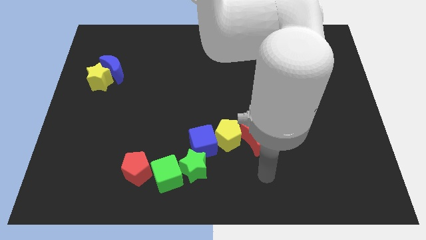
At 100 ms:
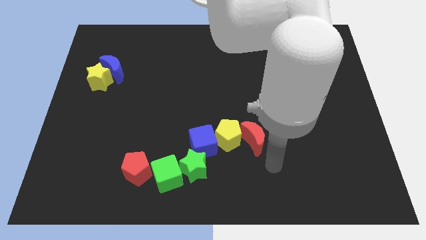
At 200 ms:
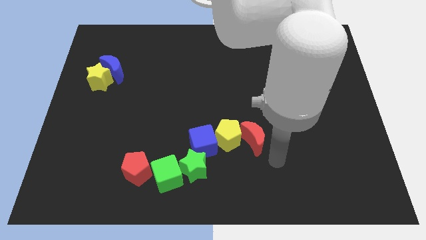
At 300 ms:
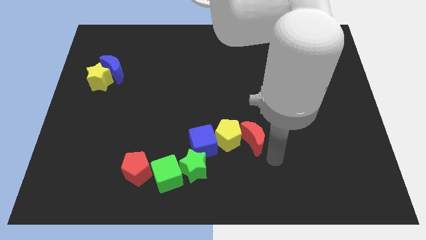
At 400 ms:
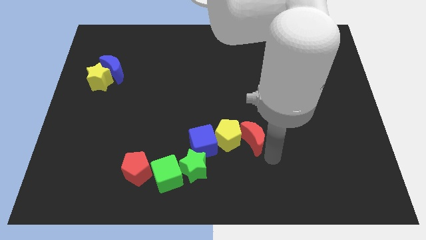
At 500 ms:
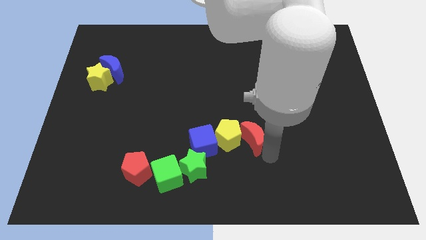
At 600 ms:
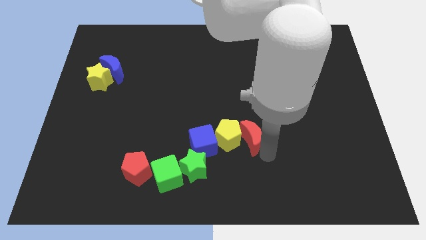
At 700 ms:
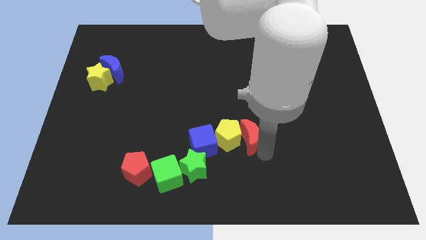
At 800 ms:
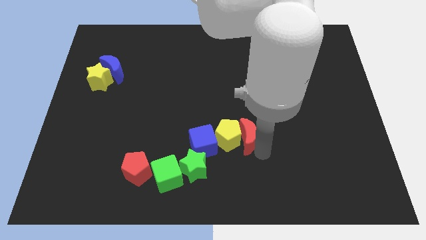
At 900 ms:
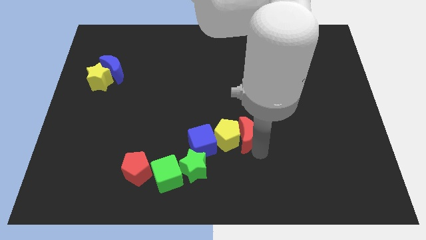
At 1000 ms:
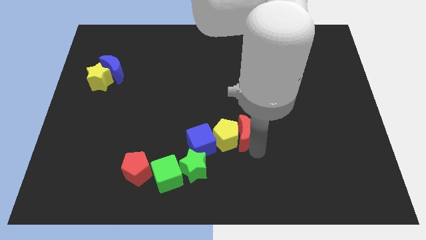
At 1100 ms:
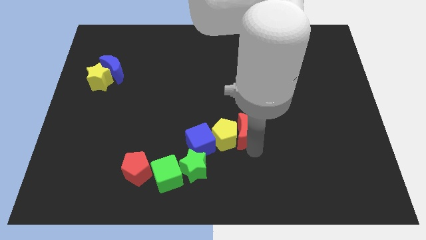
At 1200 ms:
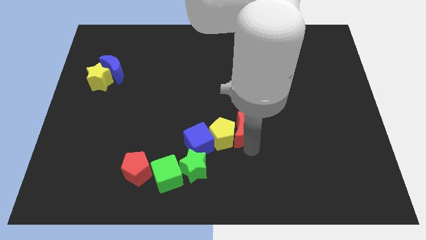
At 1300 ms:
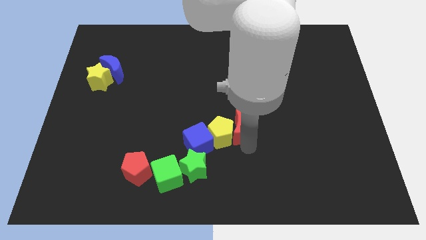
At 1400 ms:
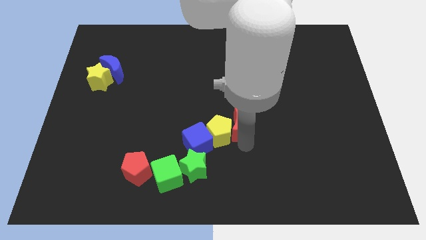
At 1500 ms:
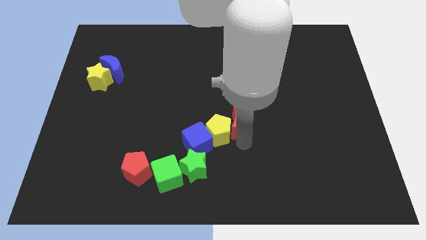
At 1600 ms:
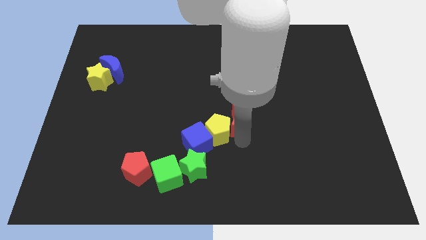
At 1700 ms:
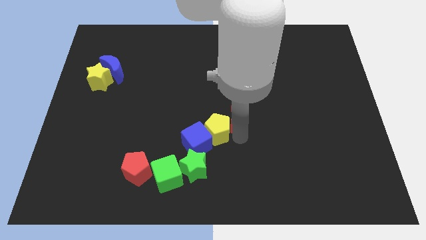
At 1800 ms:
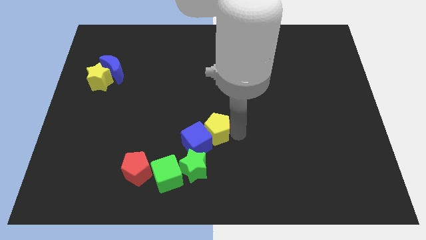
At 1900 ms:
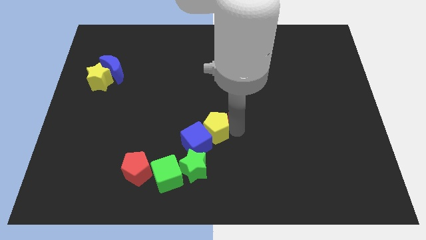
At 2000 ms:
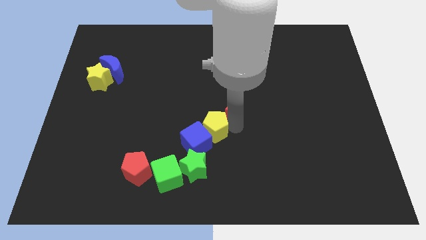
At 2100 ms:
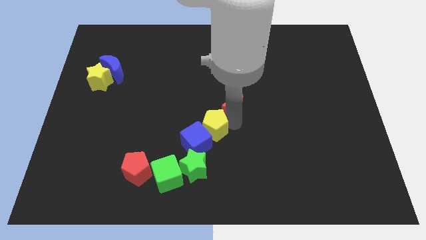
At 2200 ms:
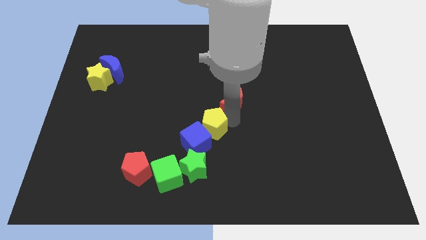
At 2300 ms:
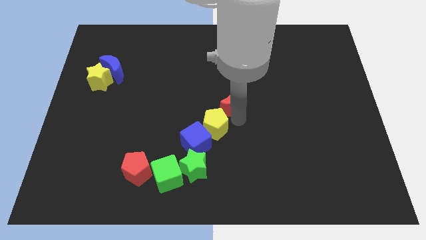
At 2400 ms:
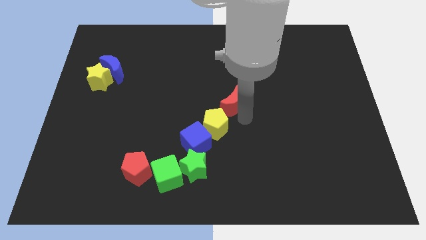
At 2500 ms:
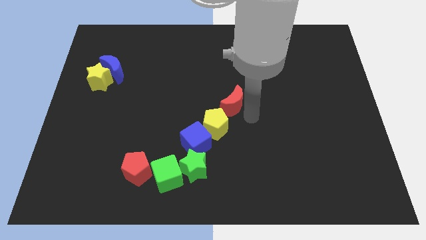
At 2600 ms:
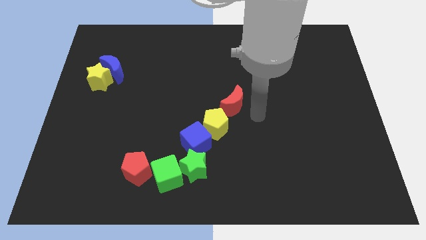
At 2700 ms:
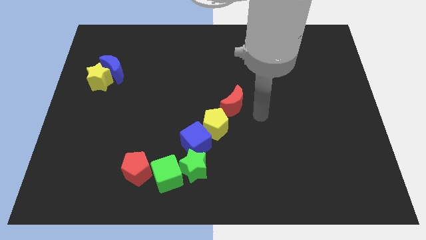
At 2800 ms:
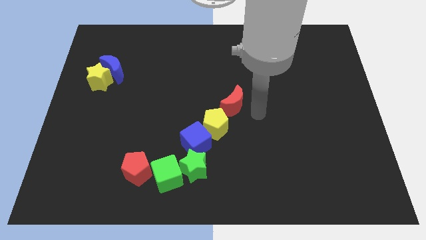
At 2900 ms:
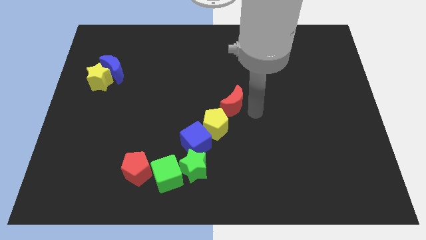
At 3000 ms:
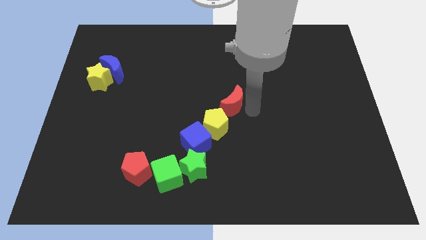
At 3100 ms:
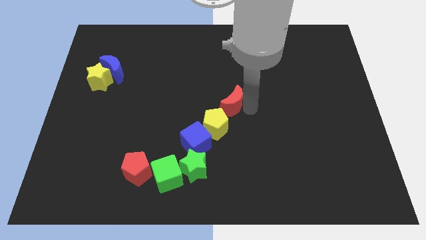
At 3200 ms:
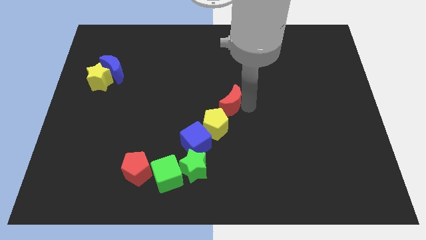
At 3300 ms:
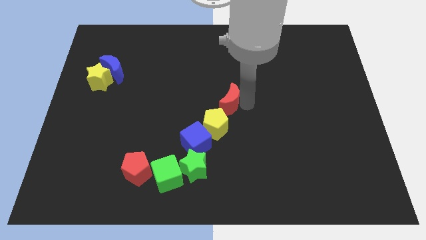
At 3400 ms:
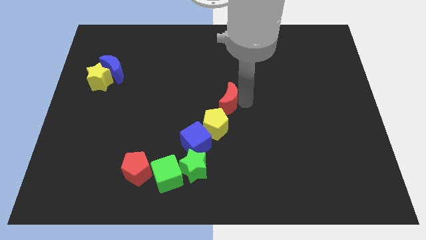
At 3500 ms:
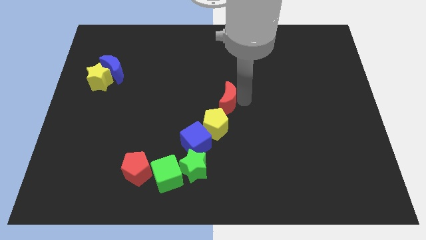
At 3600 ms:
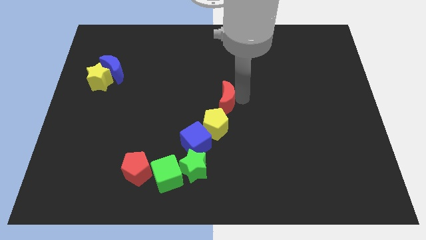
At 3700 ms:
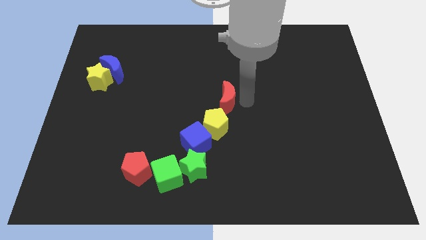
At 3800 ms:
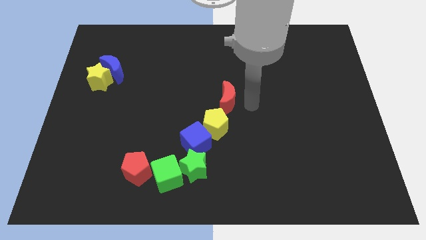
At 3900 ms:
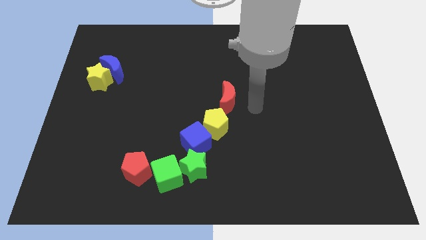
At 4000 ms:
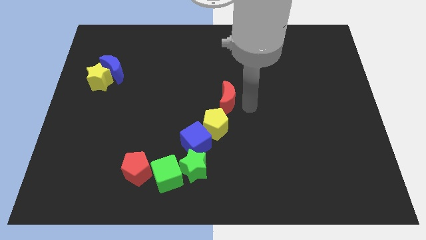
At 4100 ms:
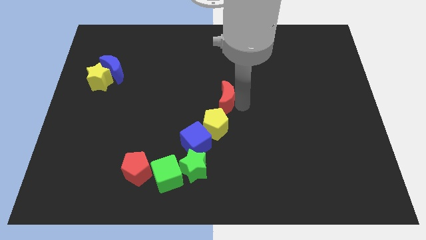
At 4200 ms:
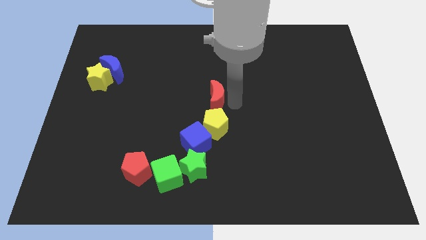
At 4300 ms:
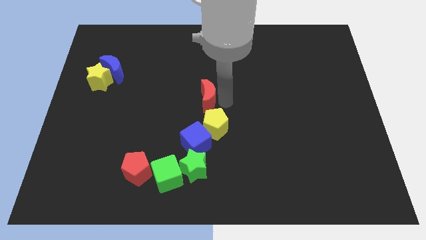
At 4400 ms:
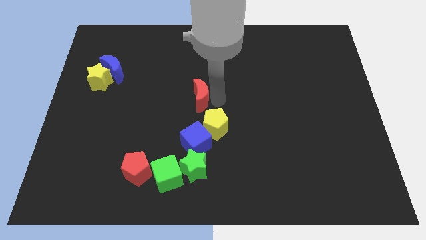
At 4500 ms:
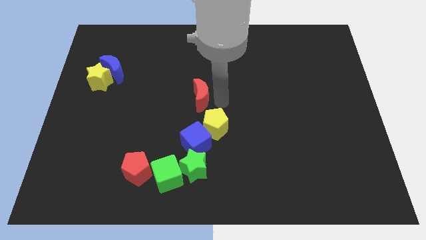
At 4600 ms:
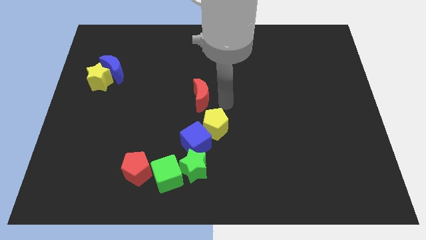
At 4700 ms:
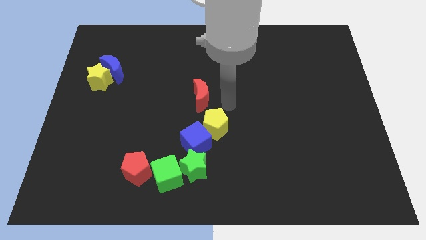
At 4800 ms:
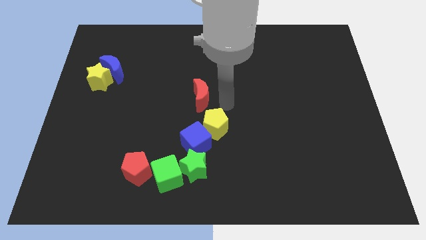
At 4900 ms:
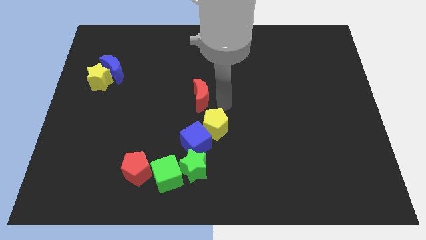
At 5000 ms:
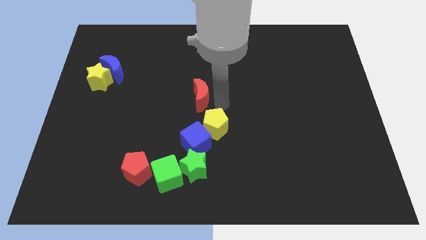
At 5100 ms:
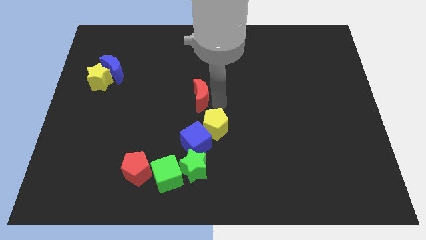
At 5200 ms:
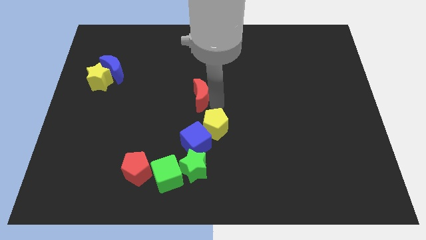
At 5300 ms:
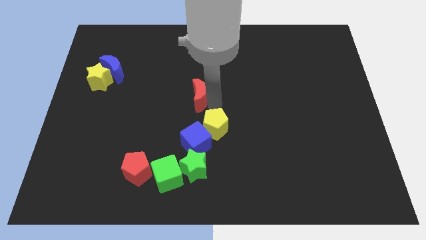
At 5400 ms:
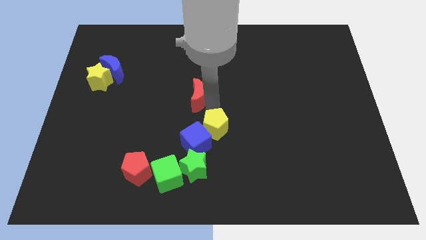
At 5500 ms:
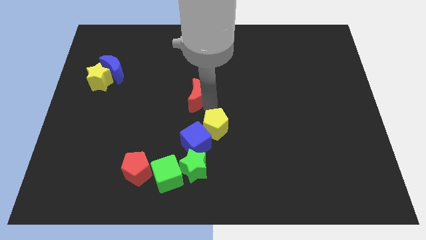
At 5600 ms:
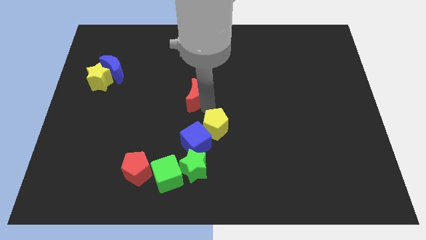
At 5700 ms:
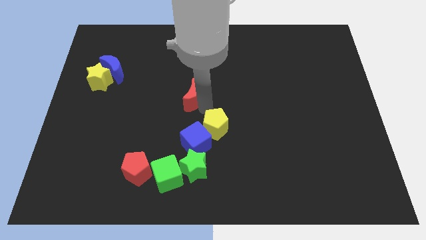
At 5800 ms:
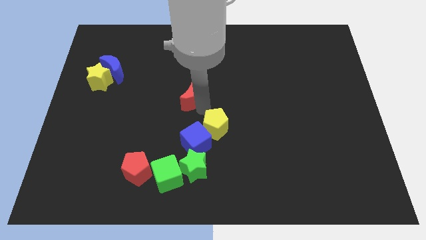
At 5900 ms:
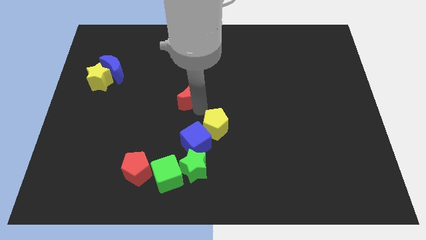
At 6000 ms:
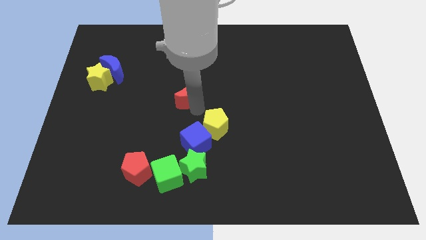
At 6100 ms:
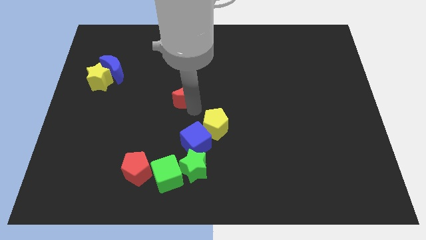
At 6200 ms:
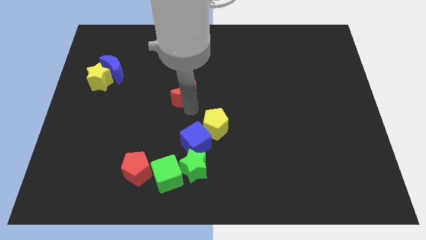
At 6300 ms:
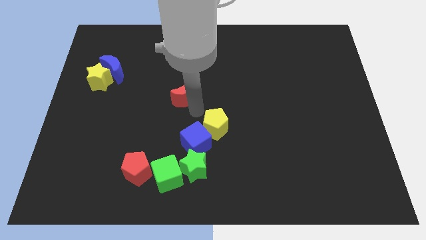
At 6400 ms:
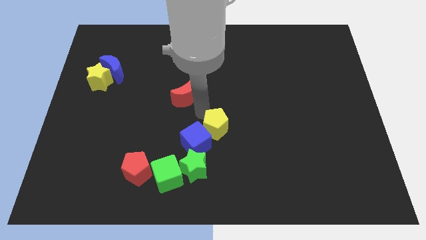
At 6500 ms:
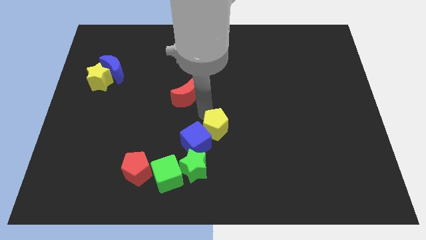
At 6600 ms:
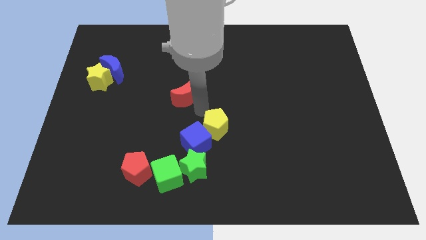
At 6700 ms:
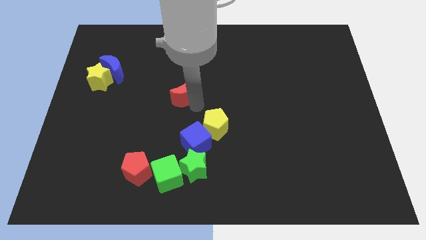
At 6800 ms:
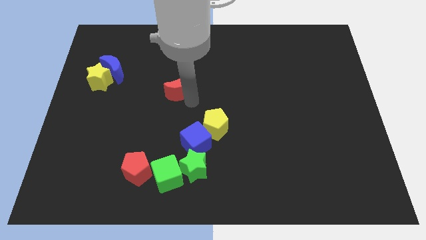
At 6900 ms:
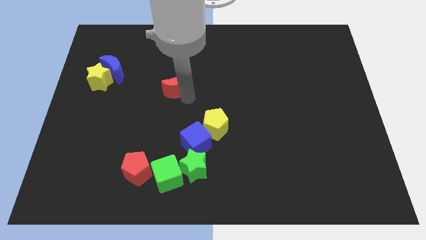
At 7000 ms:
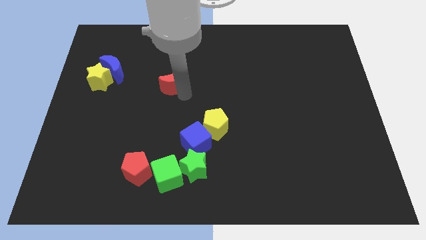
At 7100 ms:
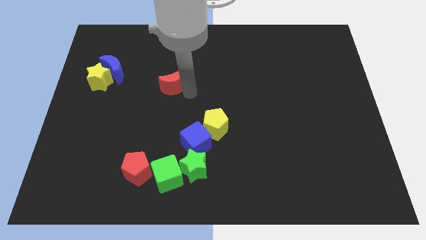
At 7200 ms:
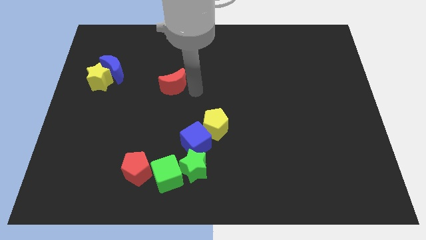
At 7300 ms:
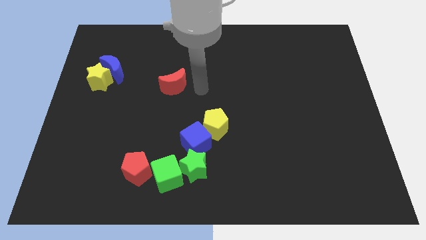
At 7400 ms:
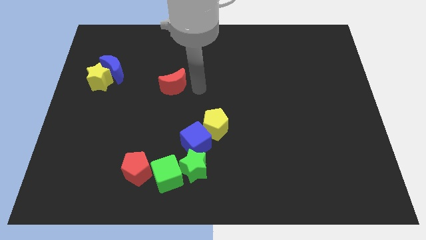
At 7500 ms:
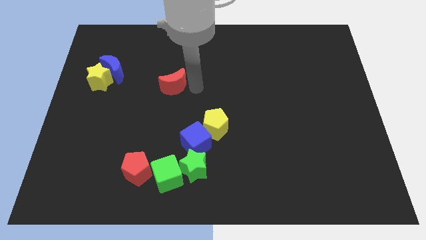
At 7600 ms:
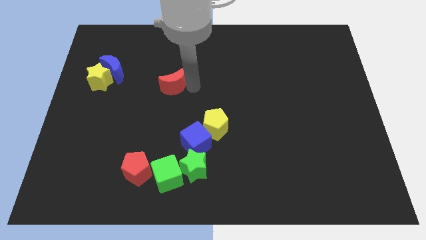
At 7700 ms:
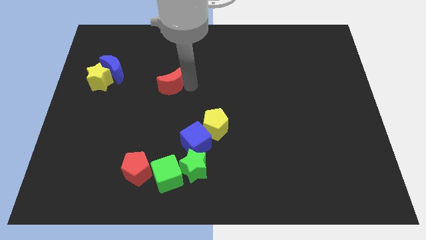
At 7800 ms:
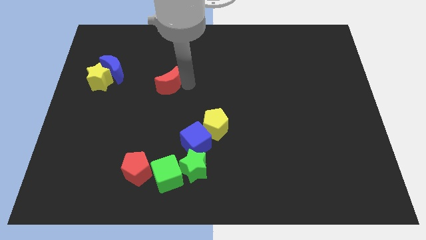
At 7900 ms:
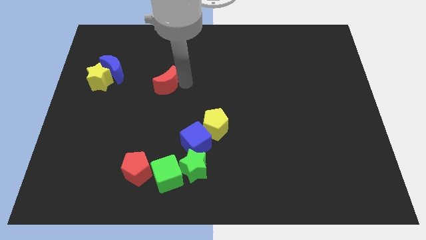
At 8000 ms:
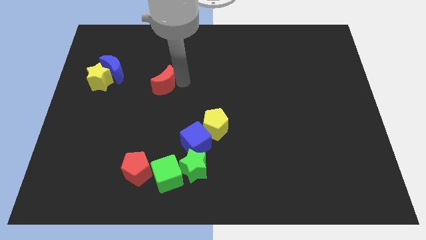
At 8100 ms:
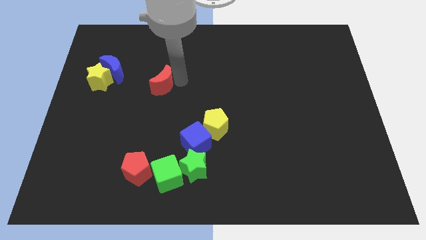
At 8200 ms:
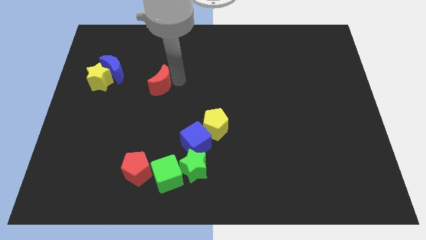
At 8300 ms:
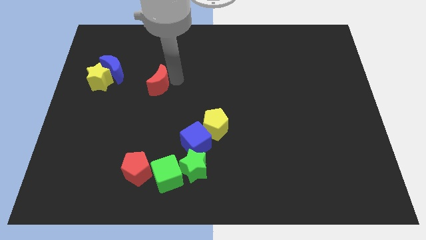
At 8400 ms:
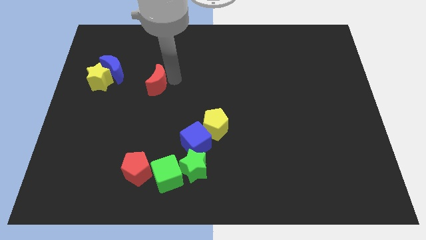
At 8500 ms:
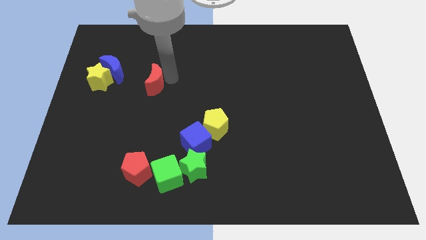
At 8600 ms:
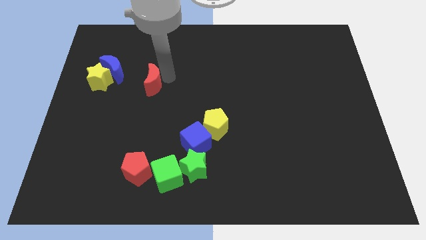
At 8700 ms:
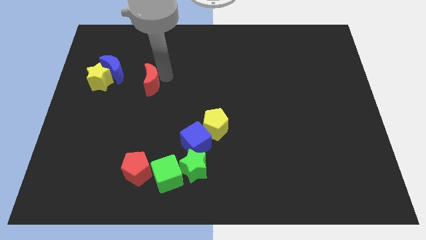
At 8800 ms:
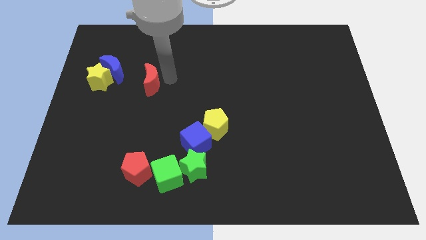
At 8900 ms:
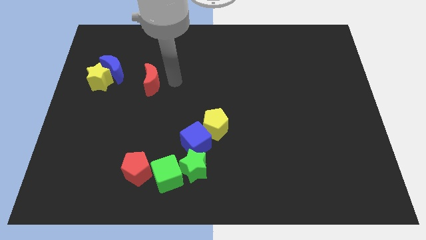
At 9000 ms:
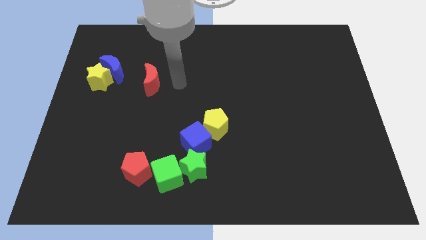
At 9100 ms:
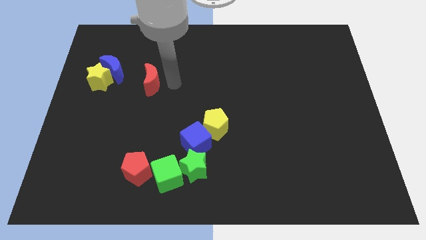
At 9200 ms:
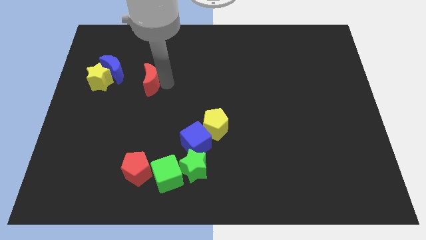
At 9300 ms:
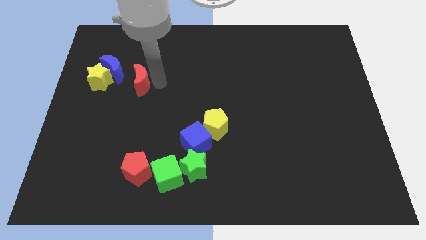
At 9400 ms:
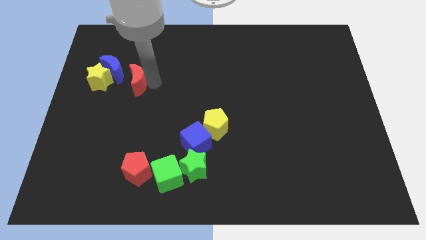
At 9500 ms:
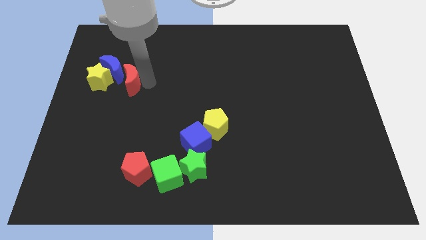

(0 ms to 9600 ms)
push the red moon close to the blue moon
